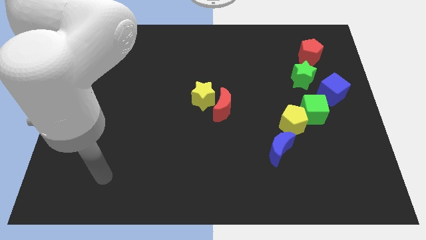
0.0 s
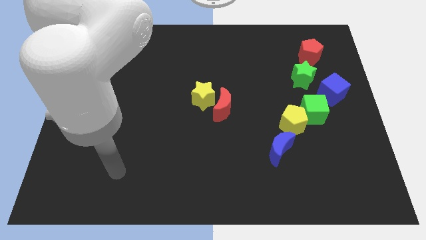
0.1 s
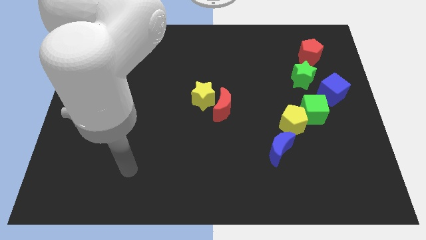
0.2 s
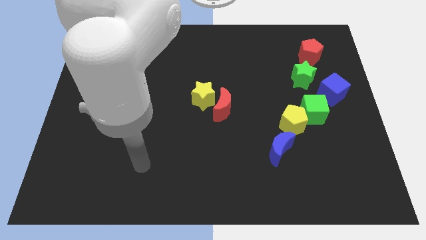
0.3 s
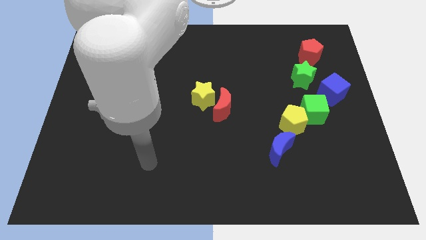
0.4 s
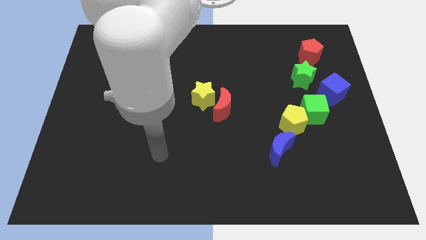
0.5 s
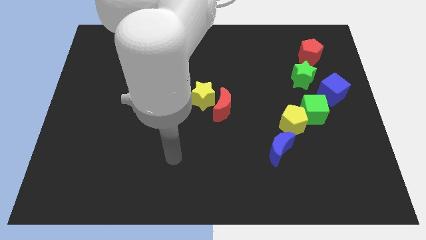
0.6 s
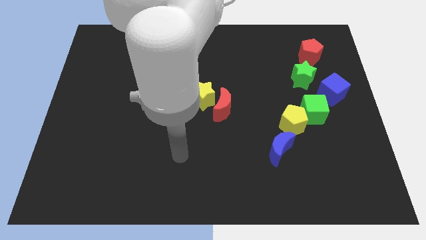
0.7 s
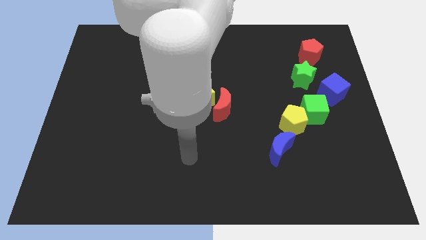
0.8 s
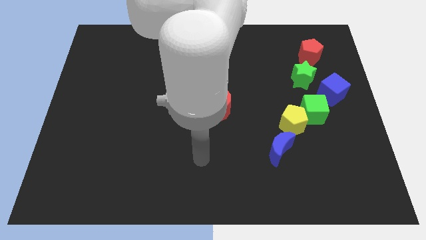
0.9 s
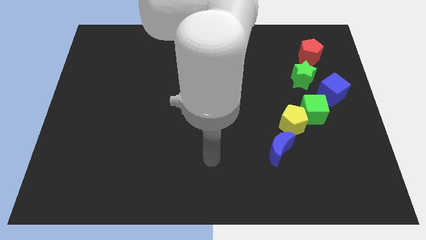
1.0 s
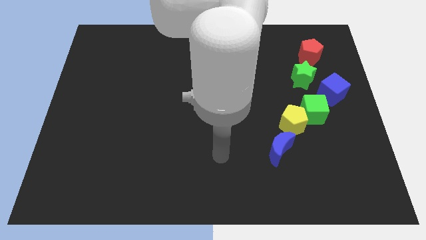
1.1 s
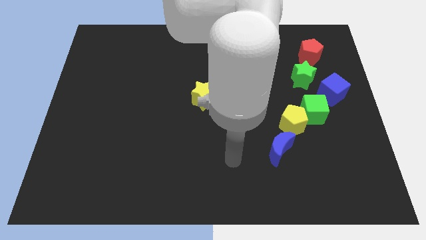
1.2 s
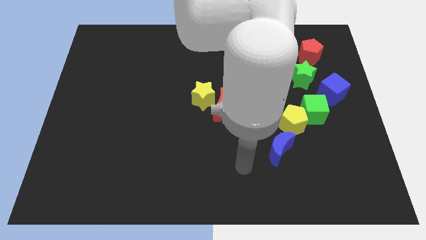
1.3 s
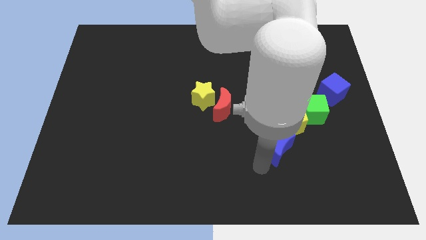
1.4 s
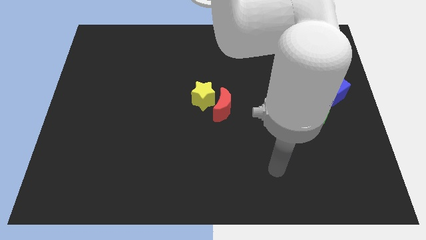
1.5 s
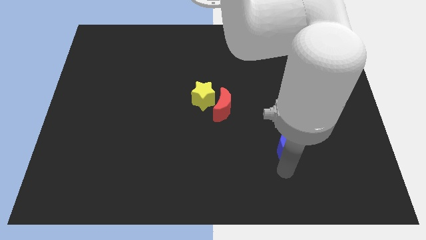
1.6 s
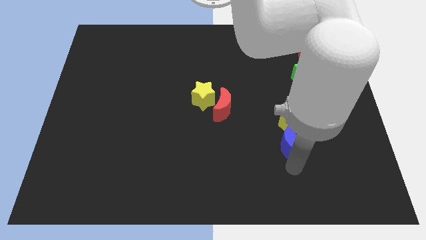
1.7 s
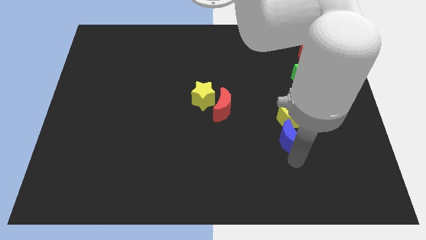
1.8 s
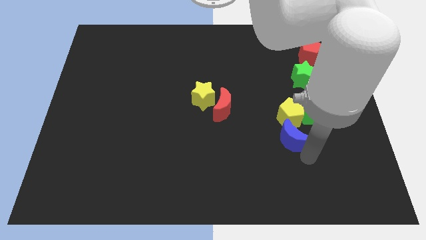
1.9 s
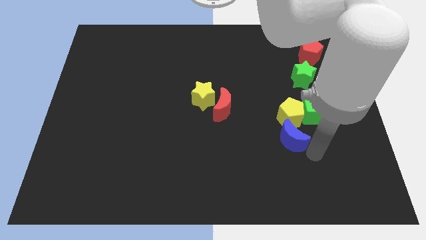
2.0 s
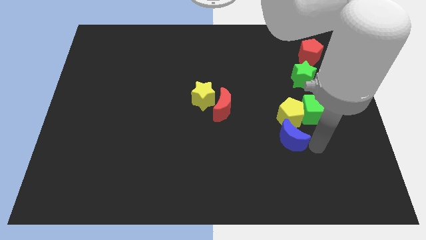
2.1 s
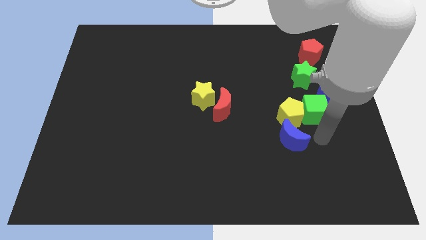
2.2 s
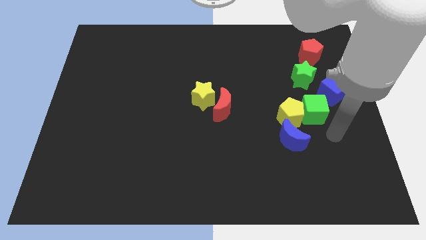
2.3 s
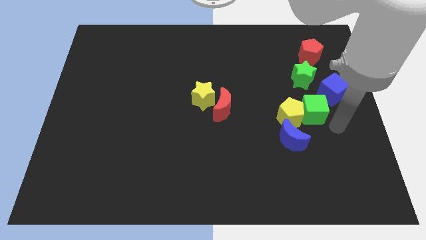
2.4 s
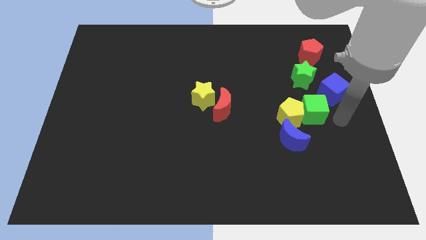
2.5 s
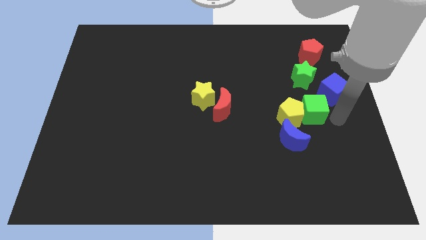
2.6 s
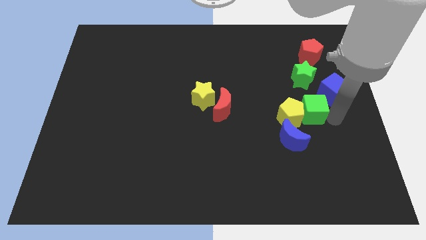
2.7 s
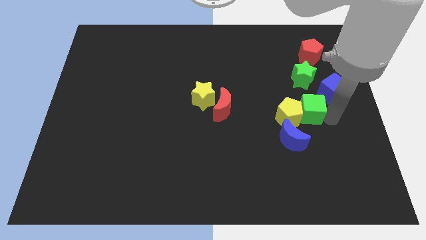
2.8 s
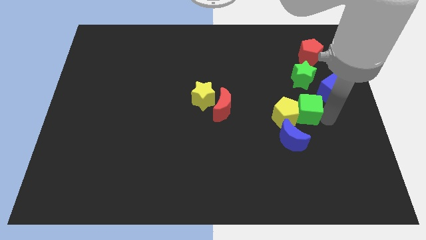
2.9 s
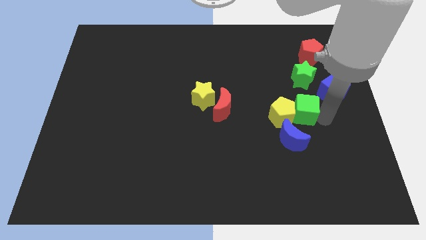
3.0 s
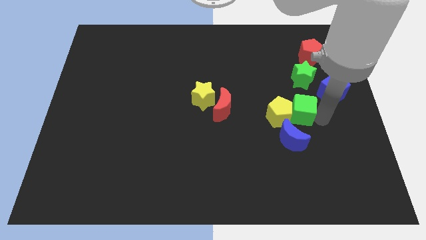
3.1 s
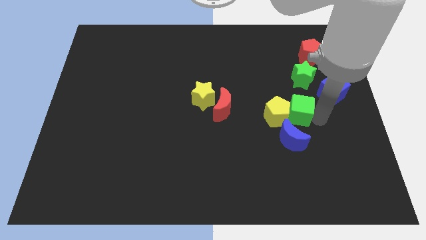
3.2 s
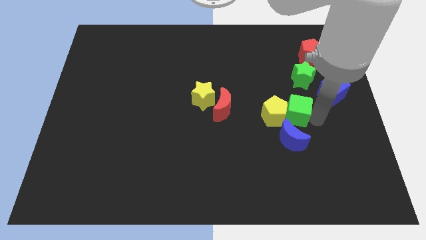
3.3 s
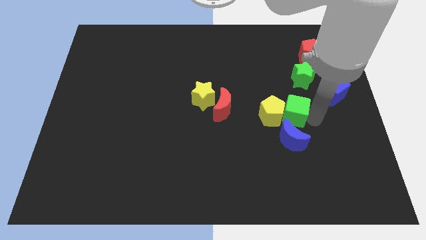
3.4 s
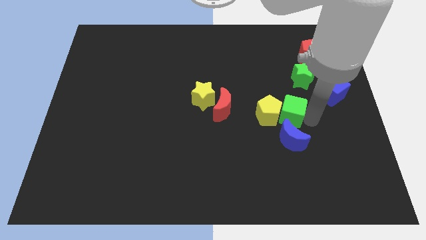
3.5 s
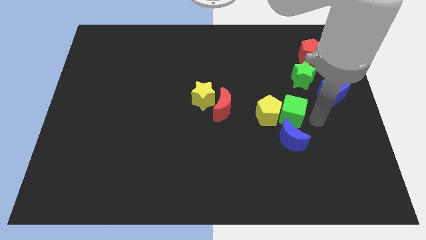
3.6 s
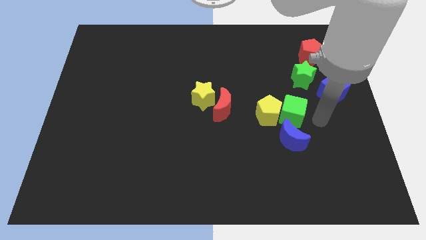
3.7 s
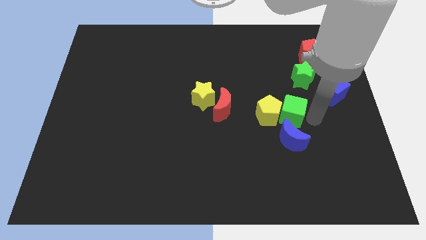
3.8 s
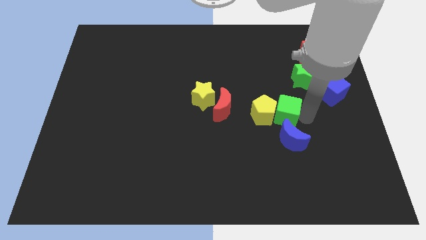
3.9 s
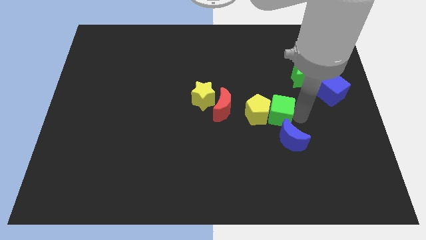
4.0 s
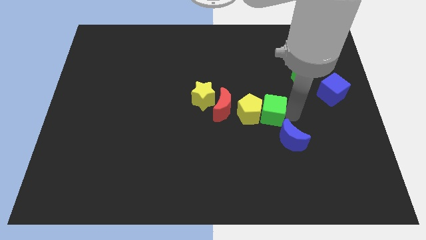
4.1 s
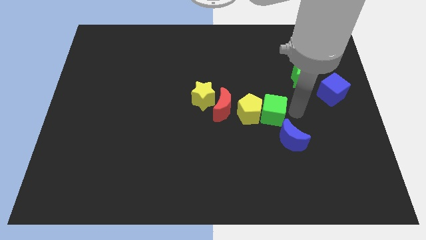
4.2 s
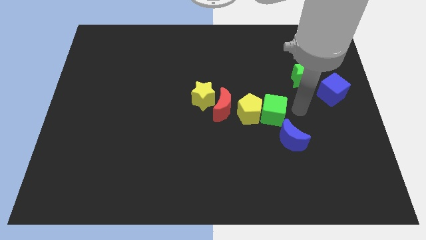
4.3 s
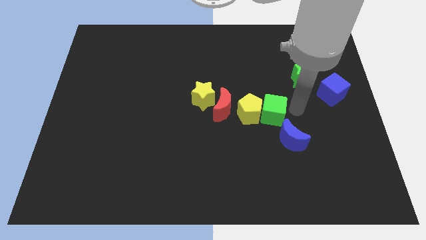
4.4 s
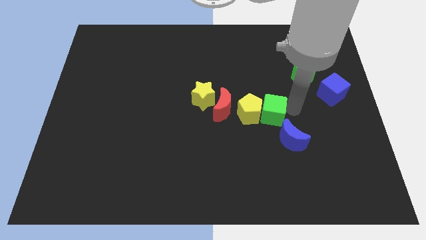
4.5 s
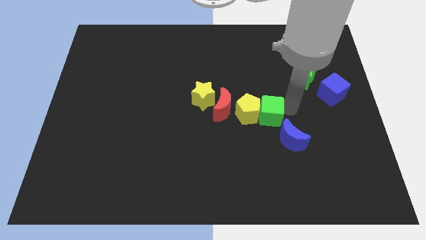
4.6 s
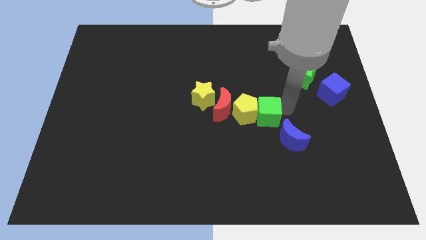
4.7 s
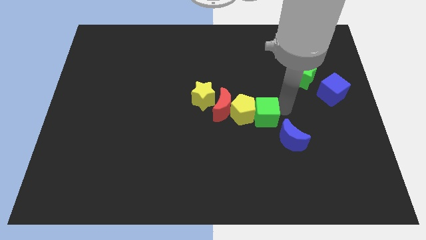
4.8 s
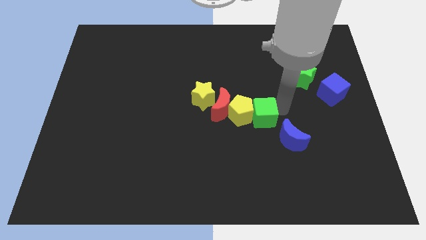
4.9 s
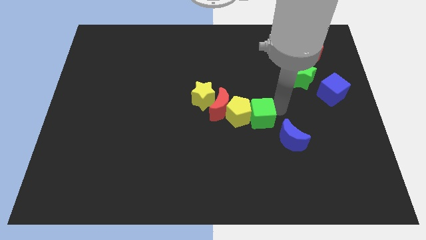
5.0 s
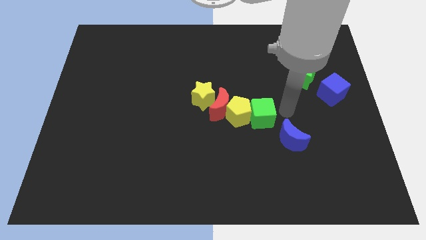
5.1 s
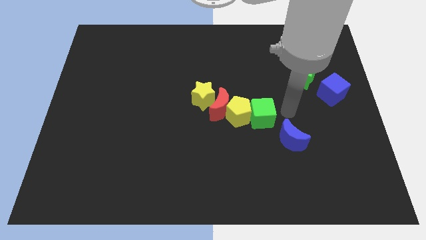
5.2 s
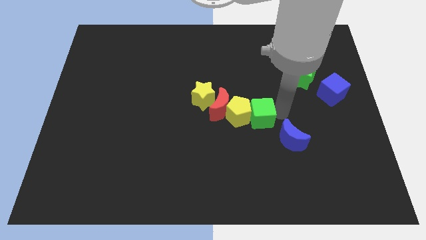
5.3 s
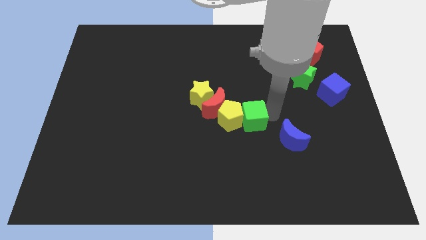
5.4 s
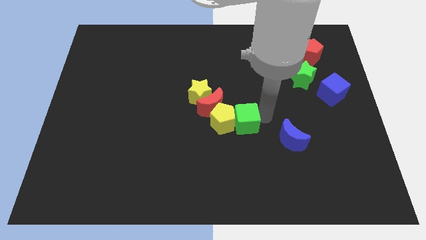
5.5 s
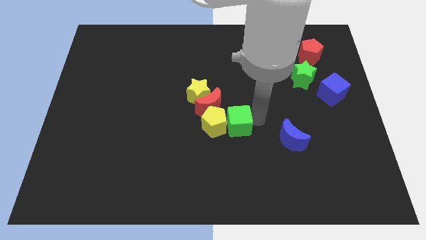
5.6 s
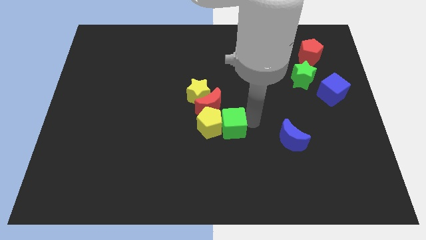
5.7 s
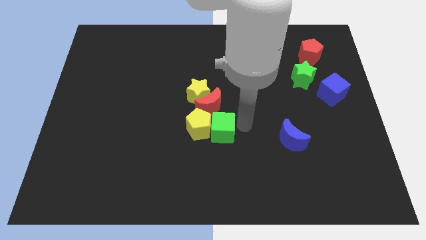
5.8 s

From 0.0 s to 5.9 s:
move the green cube left

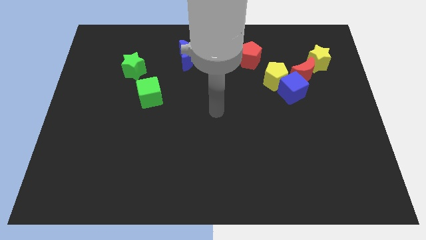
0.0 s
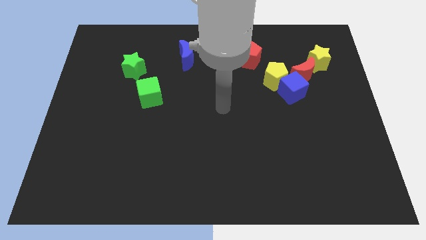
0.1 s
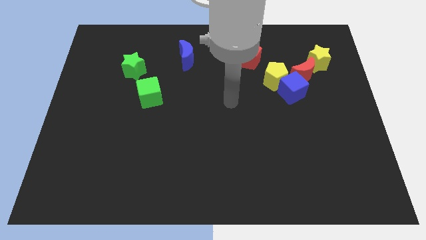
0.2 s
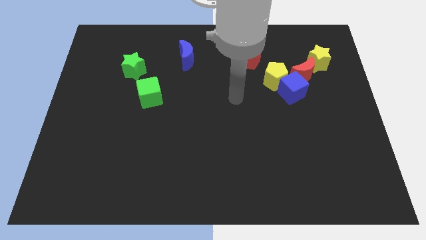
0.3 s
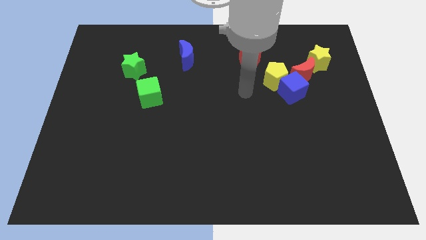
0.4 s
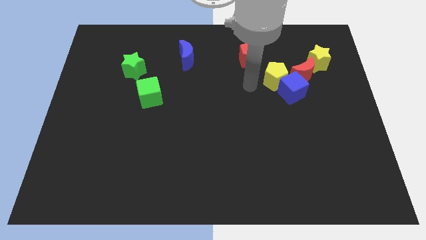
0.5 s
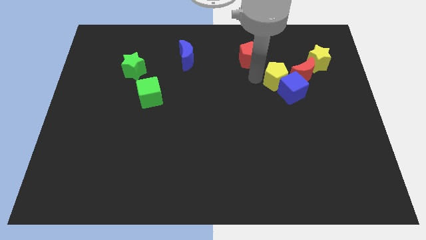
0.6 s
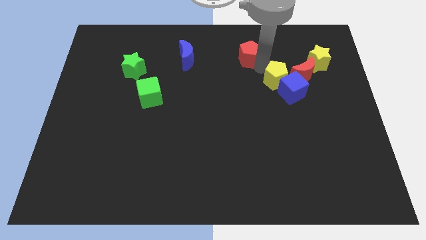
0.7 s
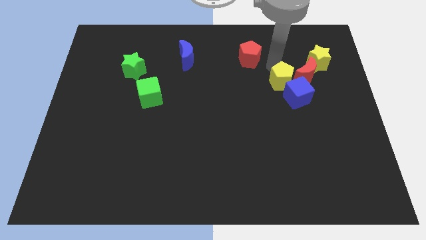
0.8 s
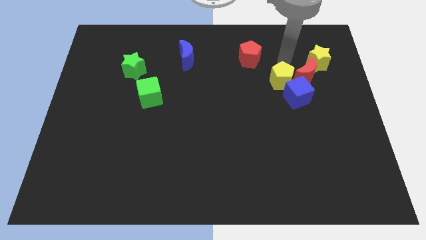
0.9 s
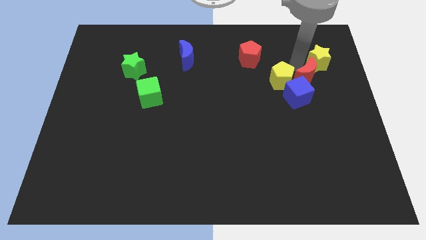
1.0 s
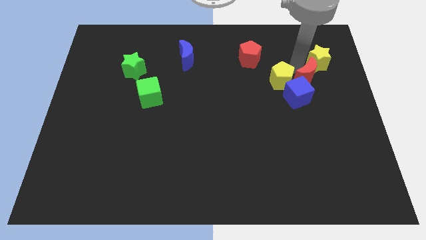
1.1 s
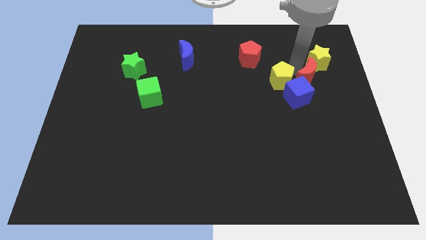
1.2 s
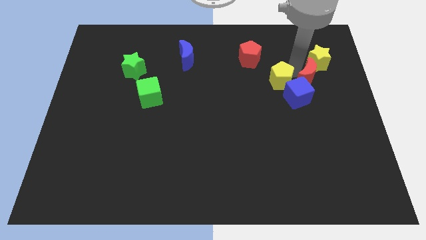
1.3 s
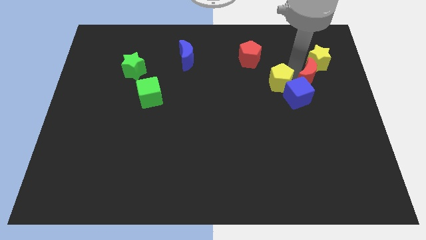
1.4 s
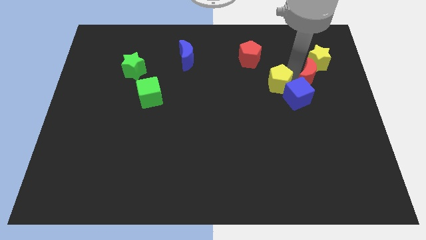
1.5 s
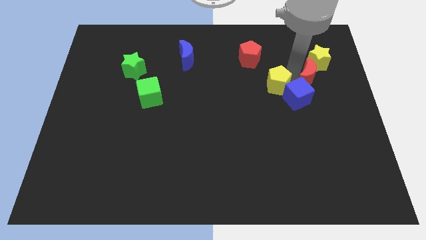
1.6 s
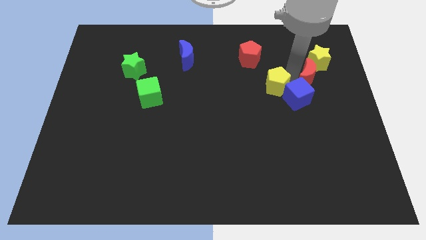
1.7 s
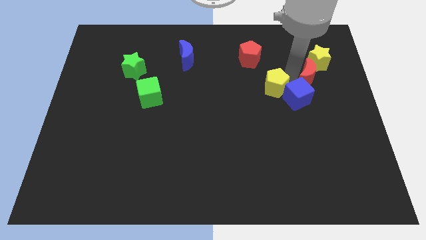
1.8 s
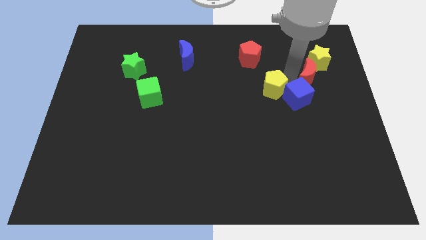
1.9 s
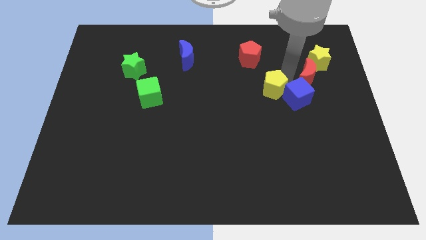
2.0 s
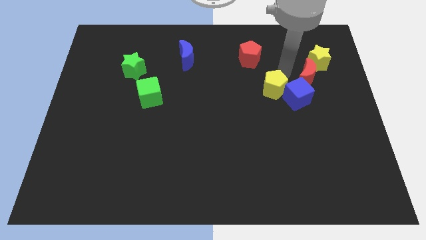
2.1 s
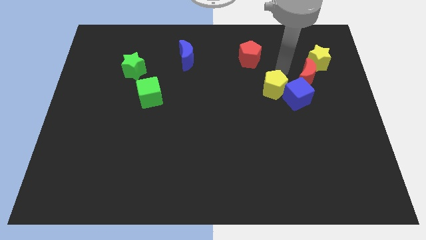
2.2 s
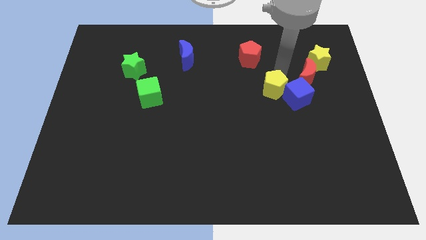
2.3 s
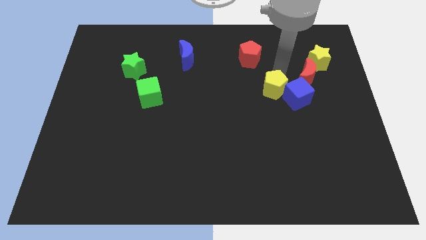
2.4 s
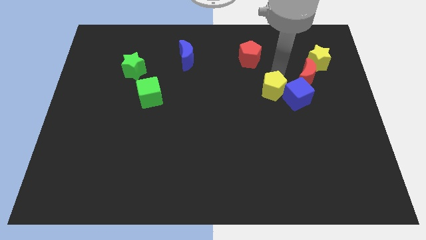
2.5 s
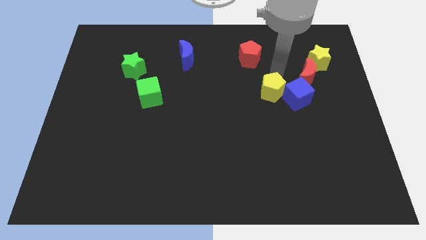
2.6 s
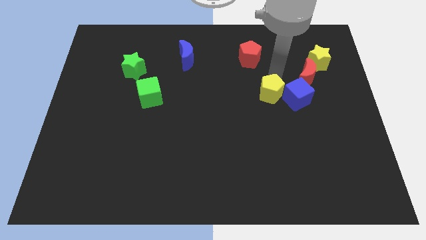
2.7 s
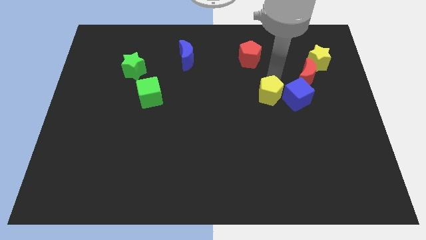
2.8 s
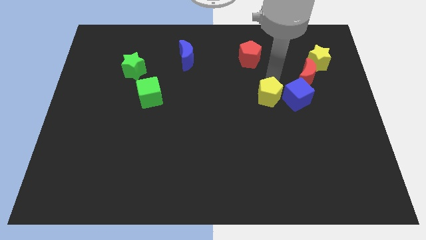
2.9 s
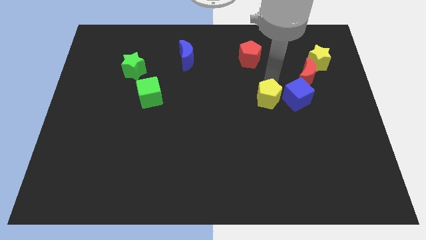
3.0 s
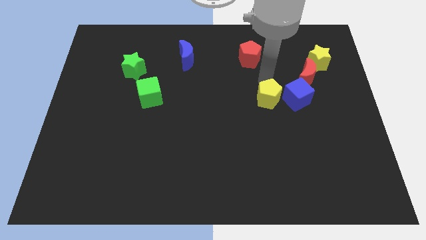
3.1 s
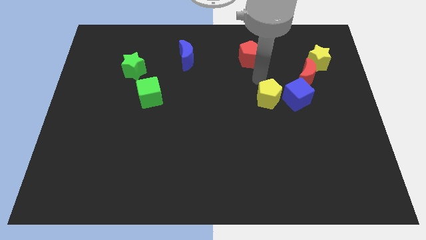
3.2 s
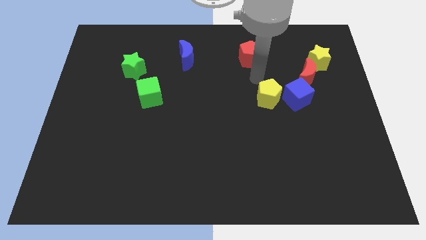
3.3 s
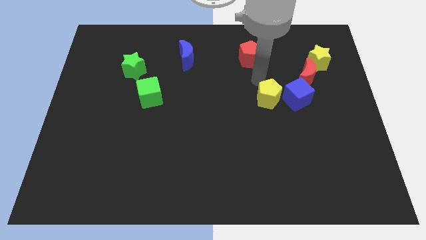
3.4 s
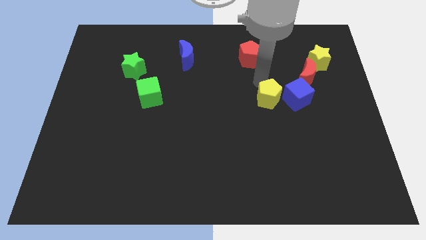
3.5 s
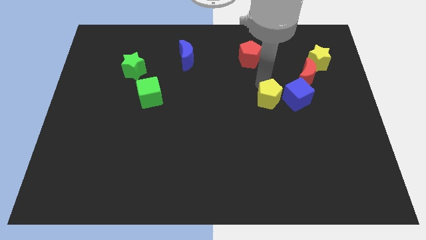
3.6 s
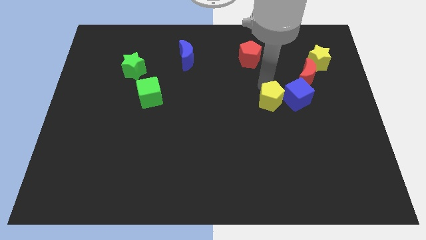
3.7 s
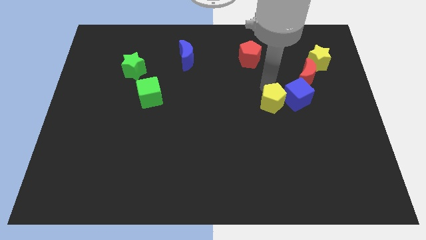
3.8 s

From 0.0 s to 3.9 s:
slightly push the yellow pentagon down
